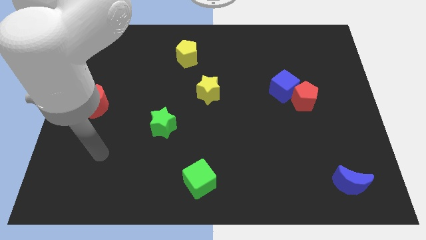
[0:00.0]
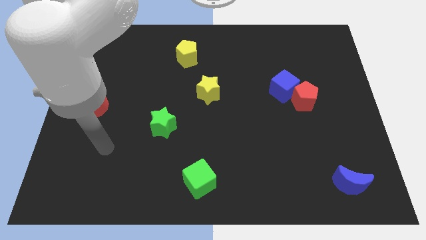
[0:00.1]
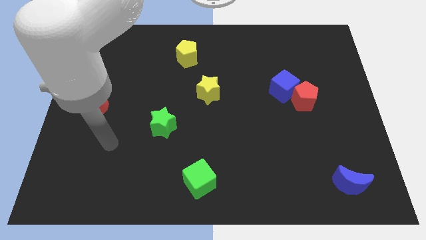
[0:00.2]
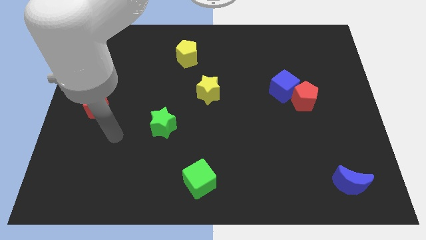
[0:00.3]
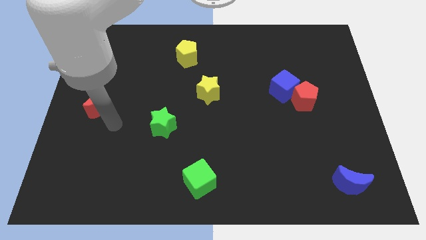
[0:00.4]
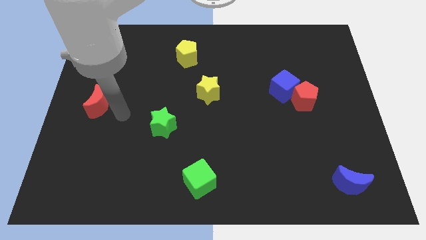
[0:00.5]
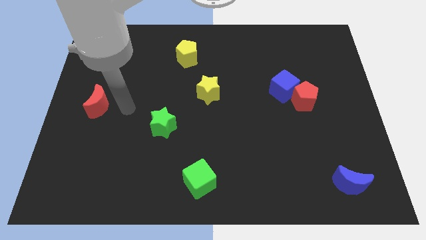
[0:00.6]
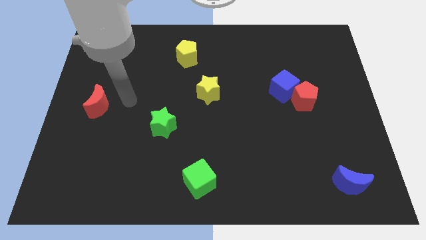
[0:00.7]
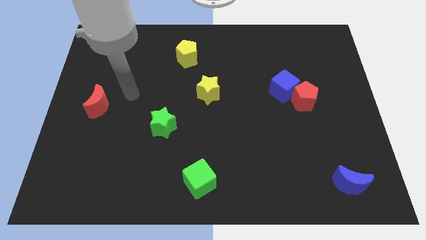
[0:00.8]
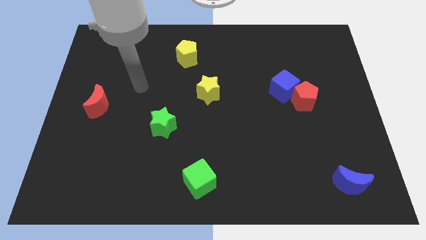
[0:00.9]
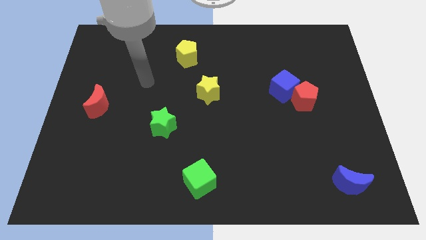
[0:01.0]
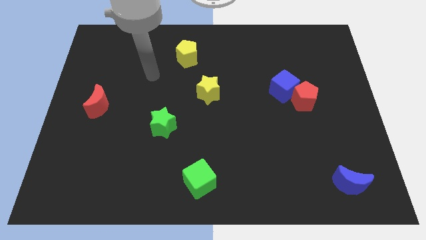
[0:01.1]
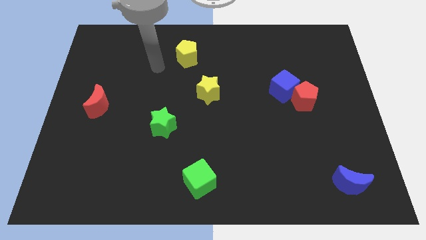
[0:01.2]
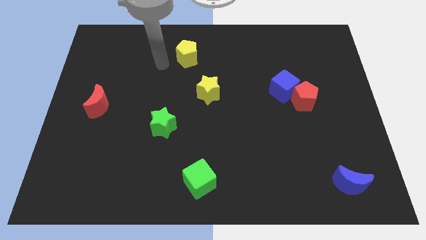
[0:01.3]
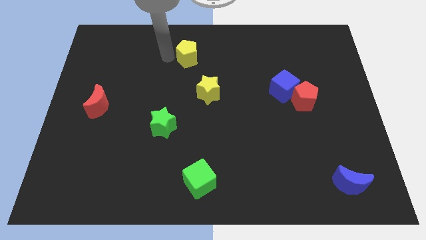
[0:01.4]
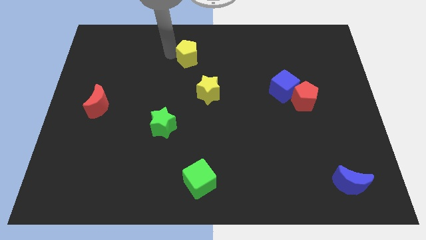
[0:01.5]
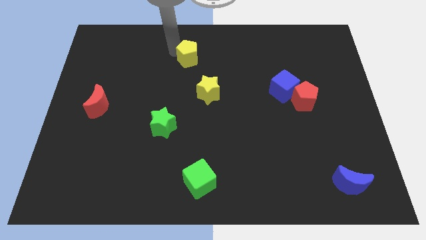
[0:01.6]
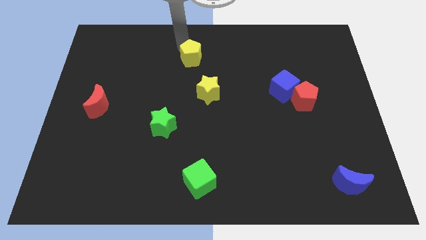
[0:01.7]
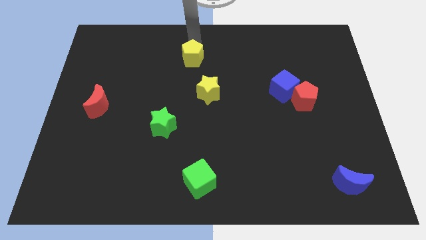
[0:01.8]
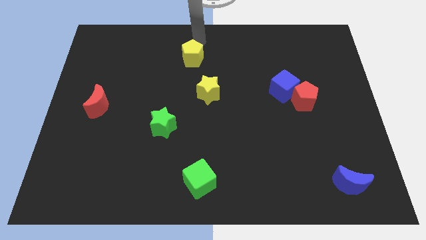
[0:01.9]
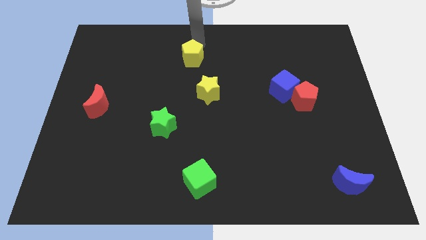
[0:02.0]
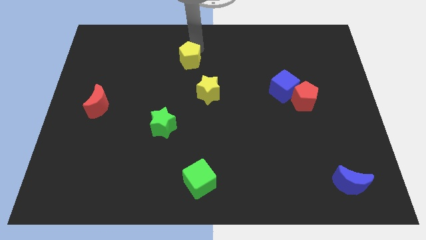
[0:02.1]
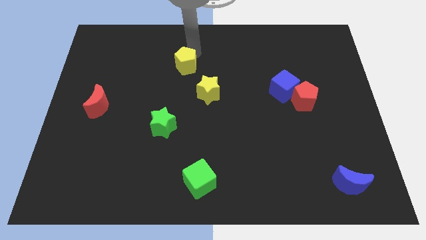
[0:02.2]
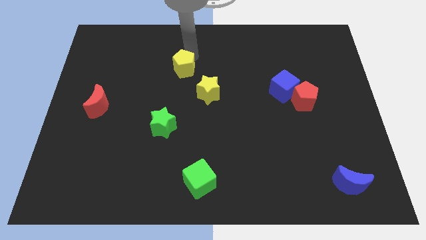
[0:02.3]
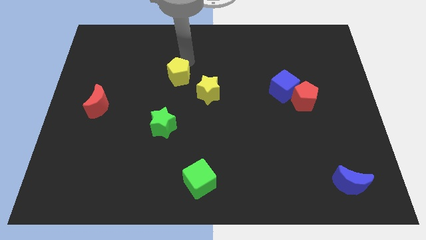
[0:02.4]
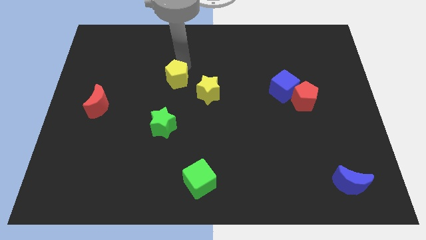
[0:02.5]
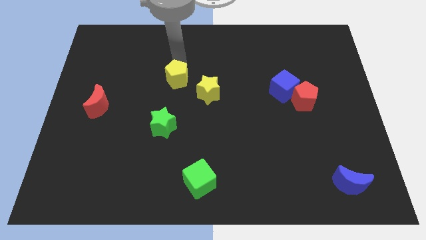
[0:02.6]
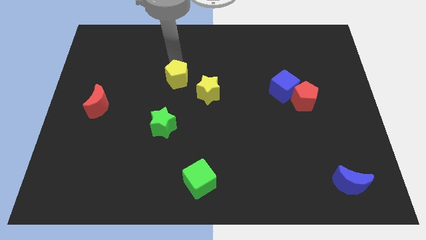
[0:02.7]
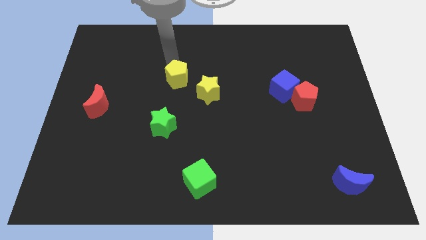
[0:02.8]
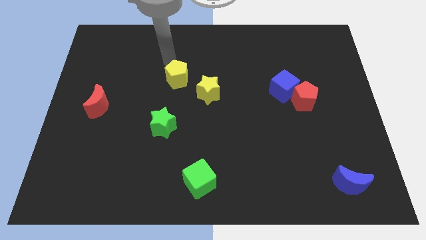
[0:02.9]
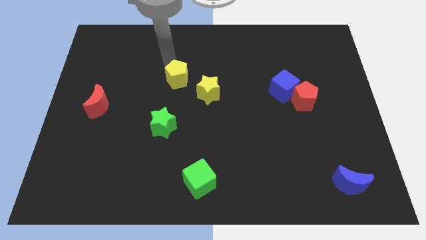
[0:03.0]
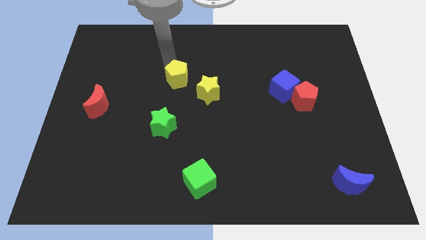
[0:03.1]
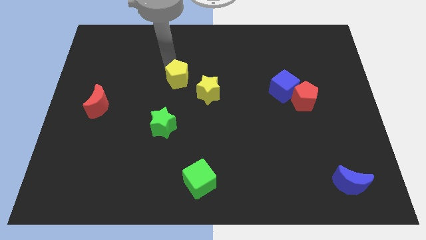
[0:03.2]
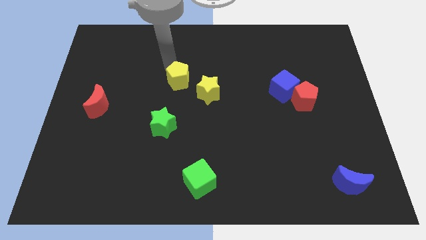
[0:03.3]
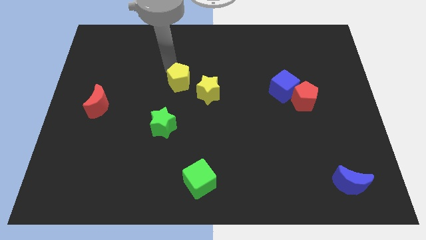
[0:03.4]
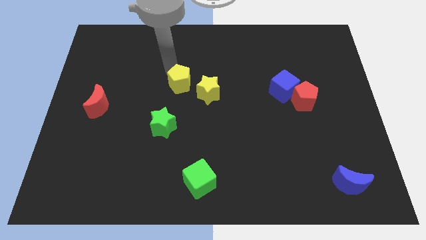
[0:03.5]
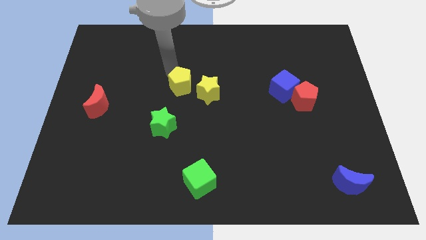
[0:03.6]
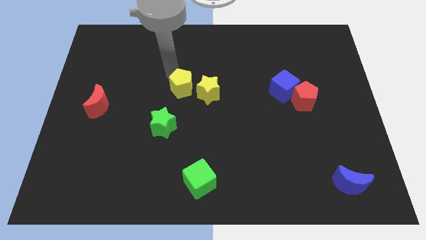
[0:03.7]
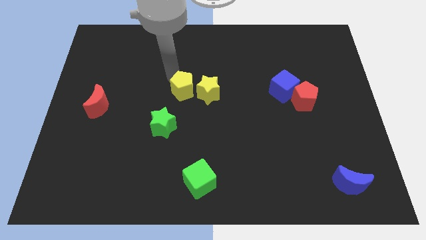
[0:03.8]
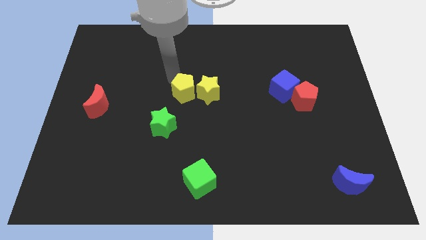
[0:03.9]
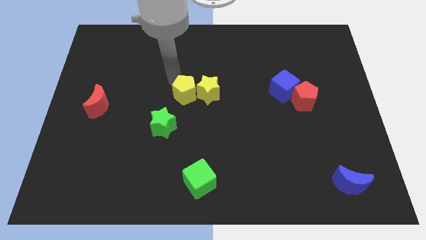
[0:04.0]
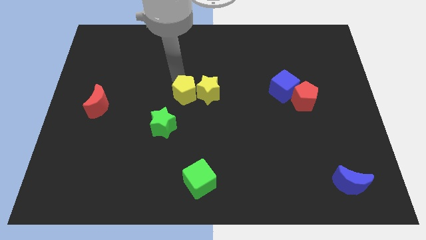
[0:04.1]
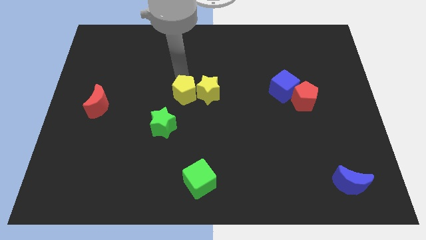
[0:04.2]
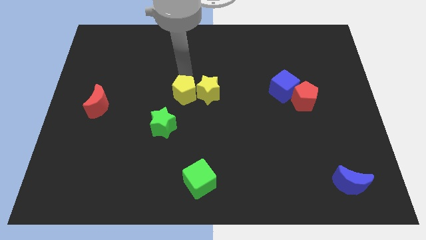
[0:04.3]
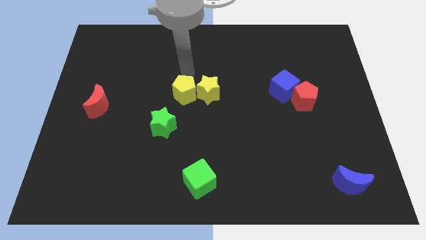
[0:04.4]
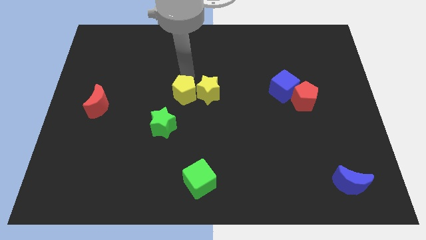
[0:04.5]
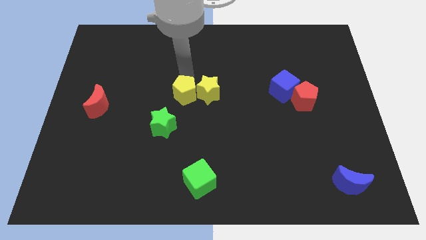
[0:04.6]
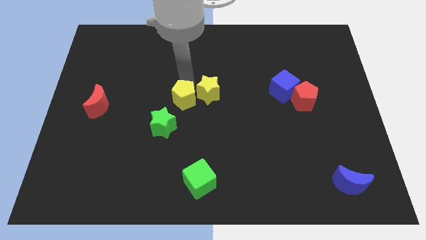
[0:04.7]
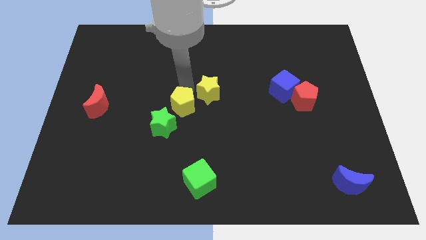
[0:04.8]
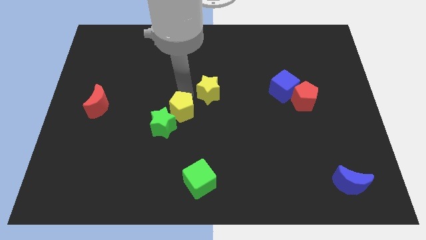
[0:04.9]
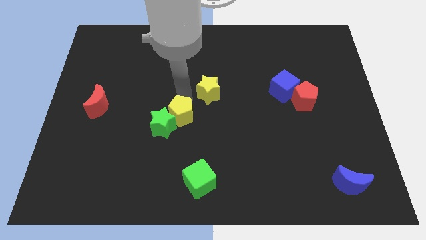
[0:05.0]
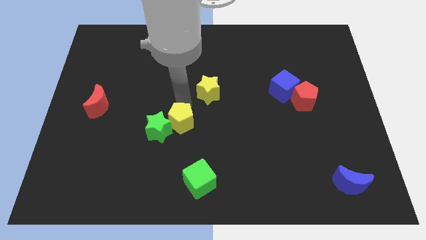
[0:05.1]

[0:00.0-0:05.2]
slide the yellow pentagon downwards

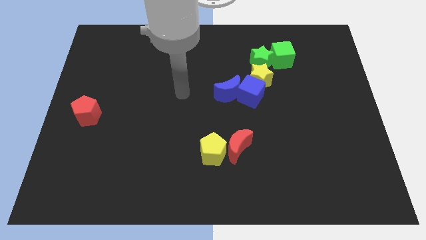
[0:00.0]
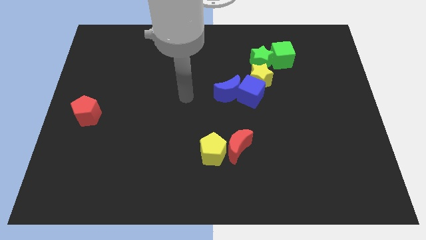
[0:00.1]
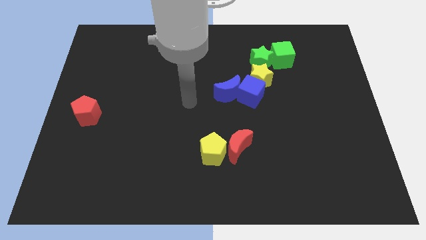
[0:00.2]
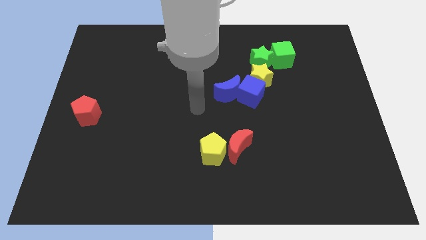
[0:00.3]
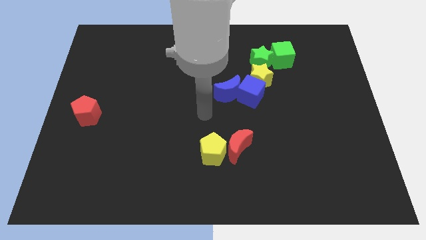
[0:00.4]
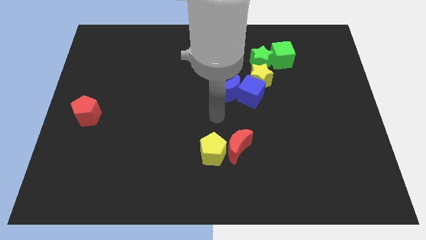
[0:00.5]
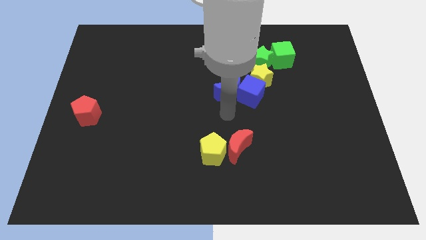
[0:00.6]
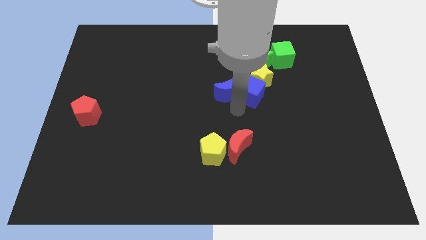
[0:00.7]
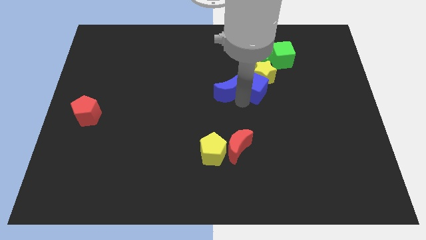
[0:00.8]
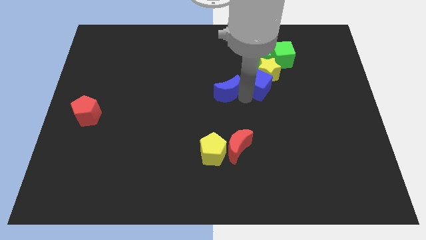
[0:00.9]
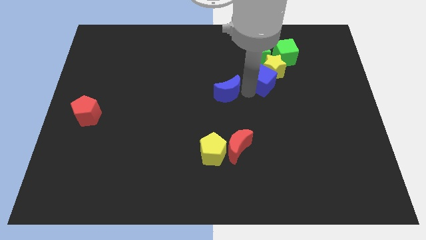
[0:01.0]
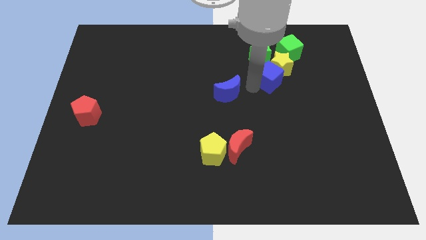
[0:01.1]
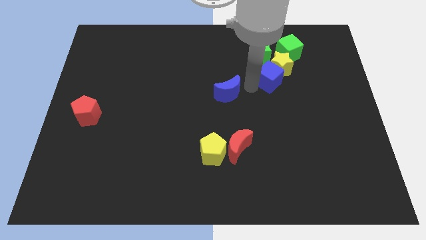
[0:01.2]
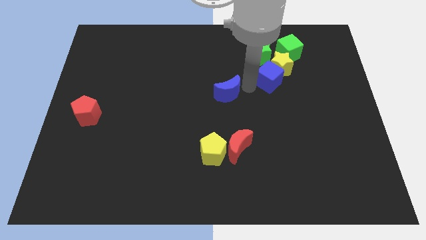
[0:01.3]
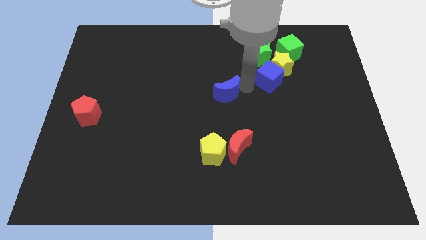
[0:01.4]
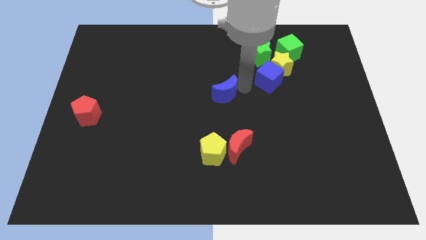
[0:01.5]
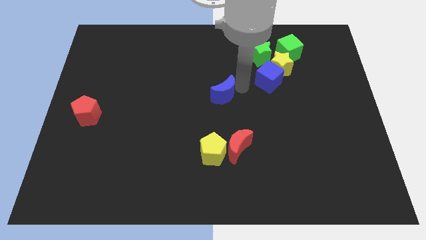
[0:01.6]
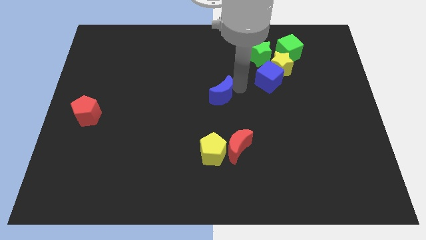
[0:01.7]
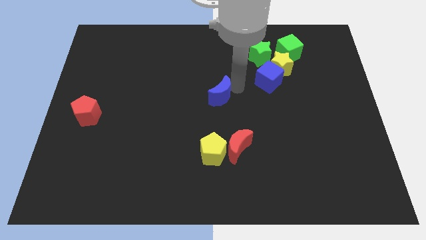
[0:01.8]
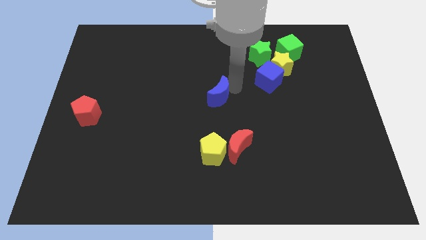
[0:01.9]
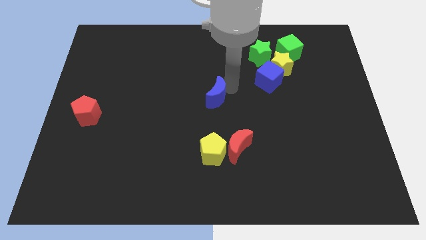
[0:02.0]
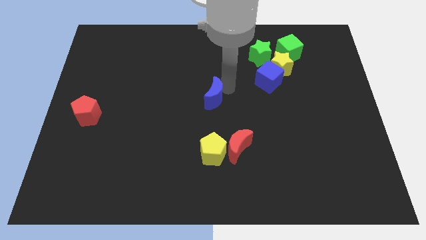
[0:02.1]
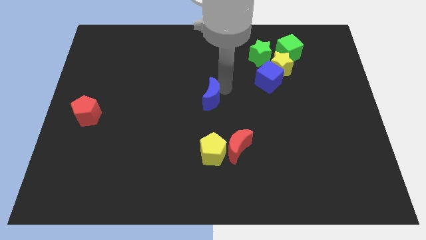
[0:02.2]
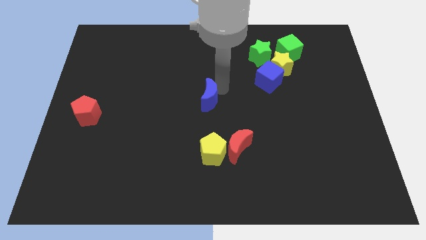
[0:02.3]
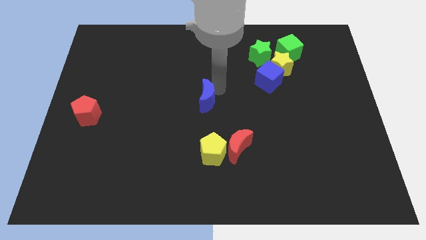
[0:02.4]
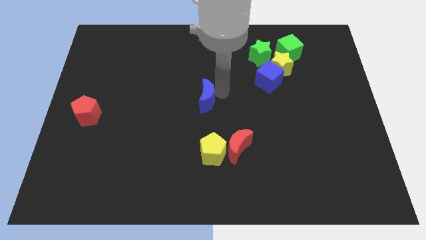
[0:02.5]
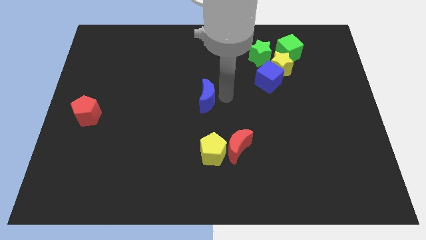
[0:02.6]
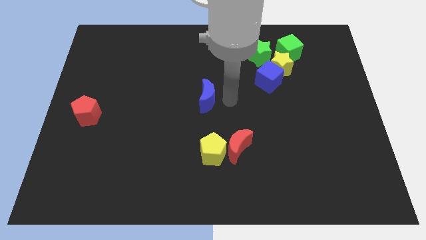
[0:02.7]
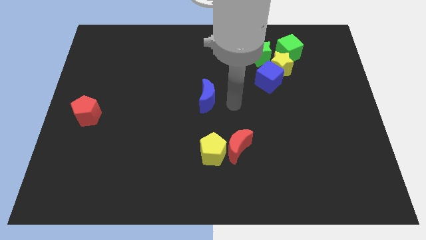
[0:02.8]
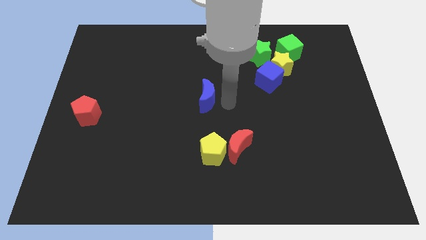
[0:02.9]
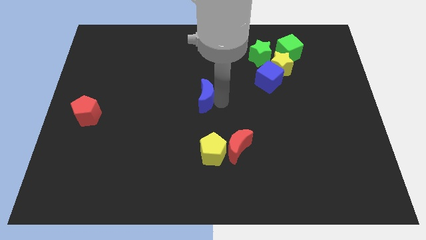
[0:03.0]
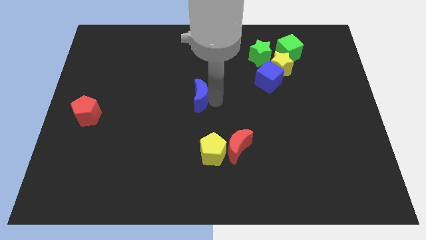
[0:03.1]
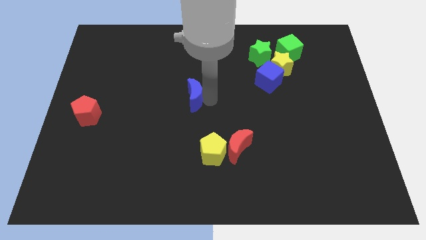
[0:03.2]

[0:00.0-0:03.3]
slightly push the blue moon left
